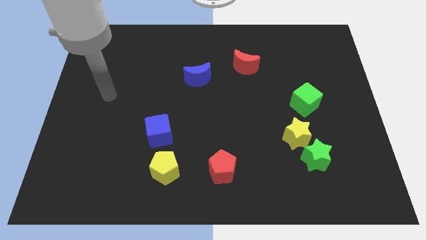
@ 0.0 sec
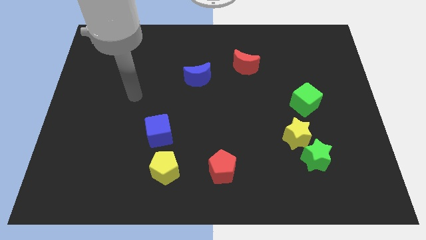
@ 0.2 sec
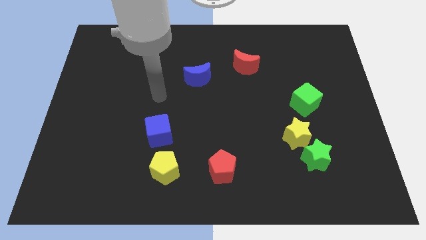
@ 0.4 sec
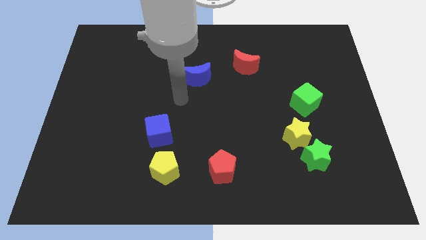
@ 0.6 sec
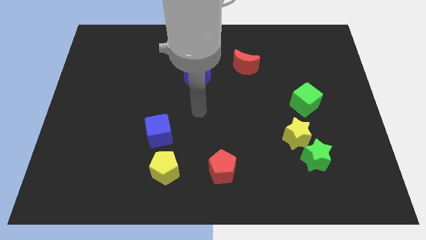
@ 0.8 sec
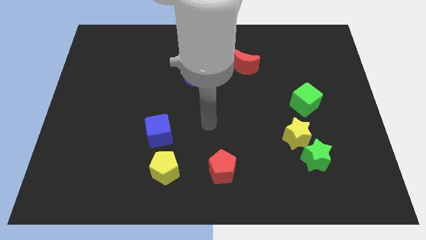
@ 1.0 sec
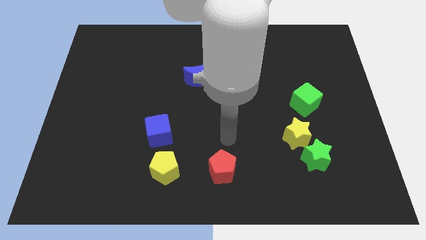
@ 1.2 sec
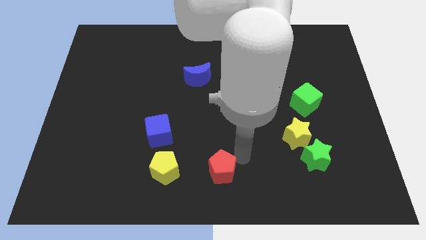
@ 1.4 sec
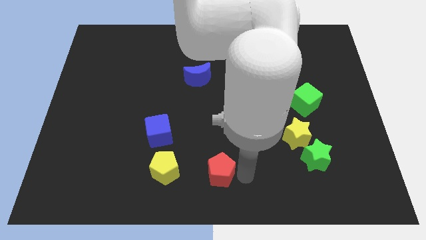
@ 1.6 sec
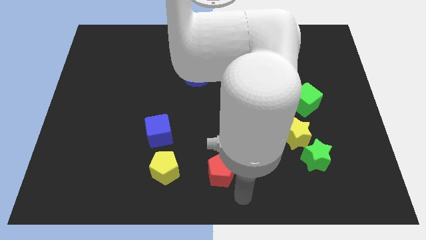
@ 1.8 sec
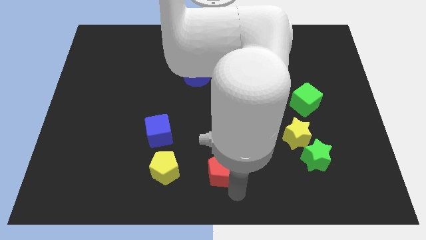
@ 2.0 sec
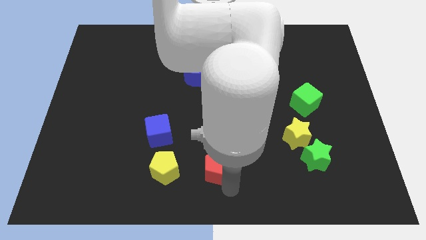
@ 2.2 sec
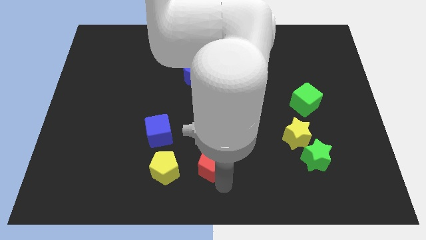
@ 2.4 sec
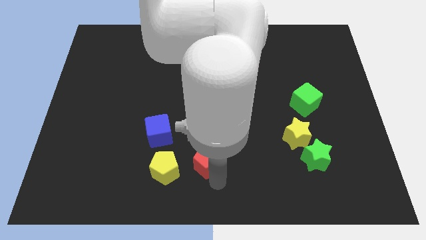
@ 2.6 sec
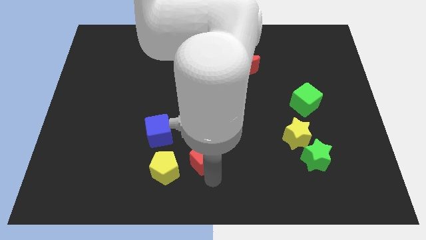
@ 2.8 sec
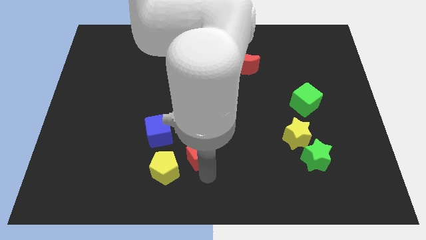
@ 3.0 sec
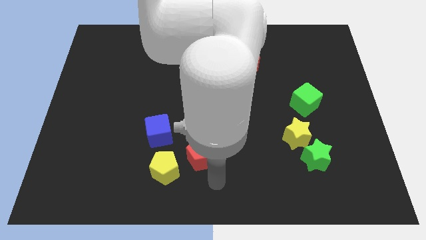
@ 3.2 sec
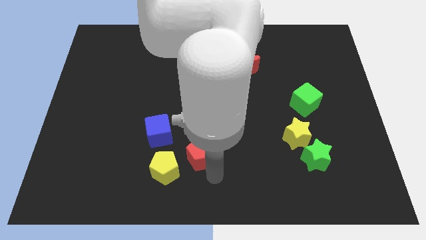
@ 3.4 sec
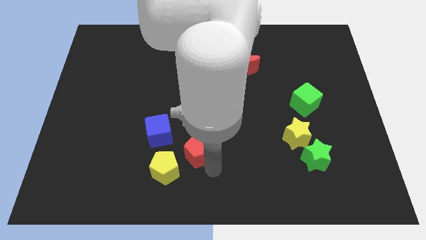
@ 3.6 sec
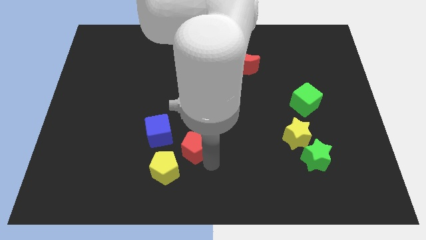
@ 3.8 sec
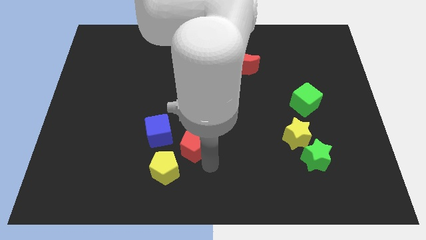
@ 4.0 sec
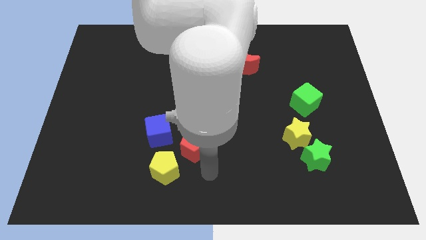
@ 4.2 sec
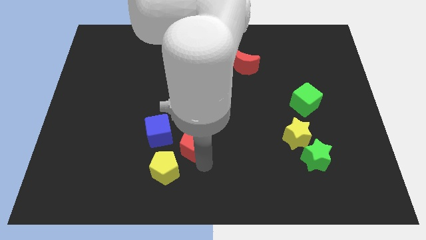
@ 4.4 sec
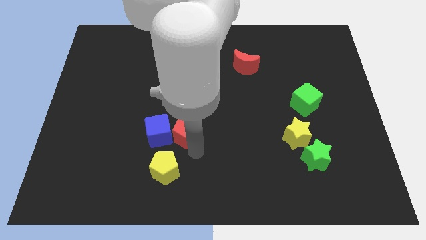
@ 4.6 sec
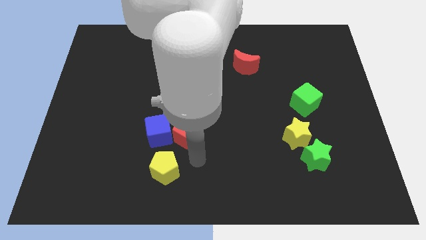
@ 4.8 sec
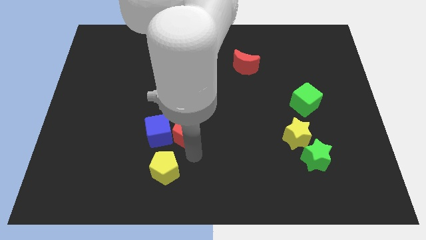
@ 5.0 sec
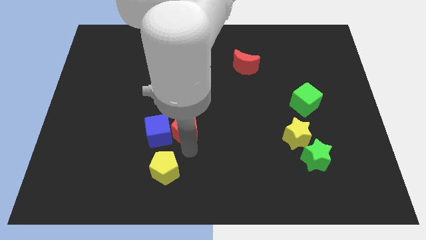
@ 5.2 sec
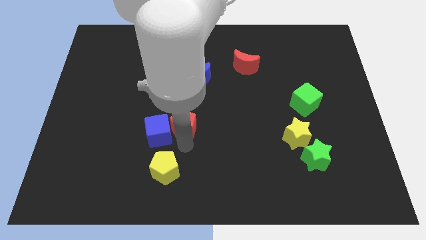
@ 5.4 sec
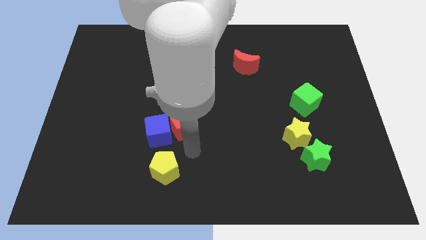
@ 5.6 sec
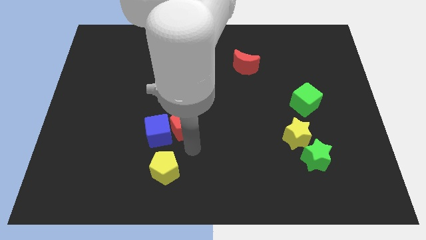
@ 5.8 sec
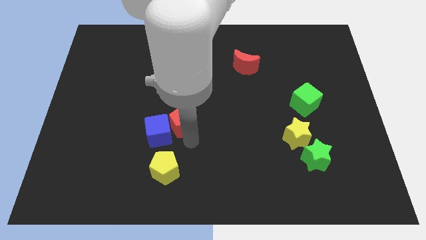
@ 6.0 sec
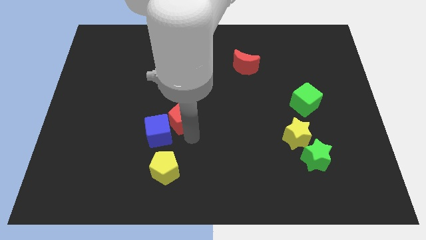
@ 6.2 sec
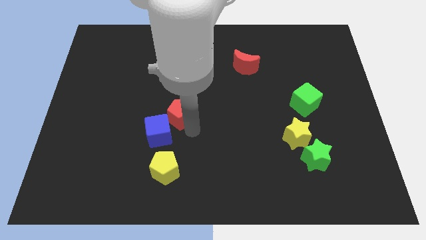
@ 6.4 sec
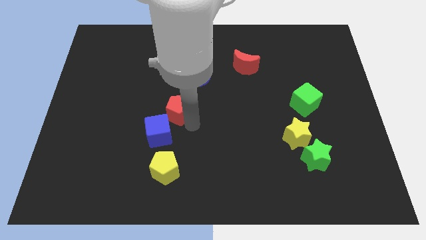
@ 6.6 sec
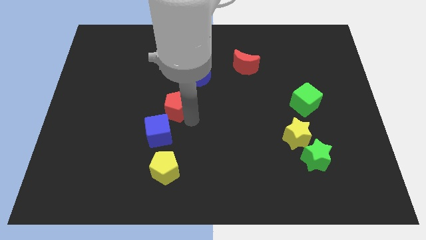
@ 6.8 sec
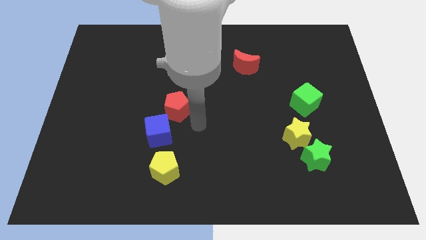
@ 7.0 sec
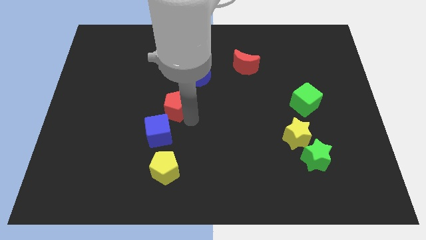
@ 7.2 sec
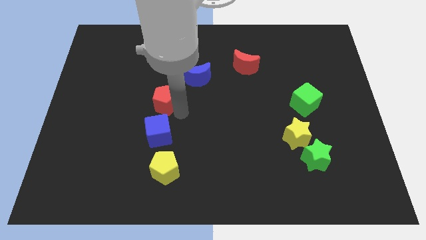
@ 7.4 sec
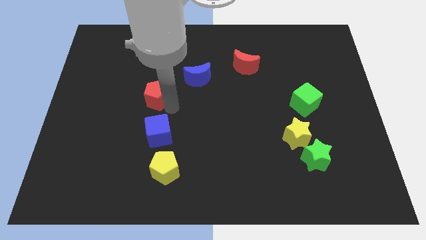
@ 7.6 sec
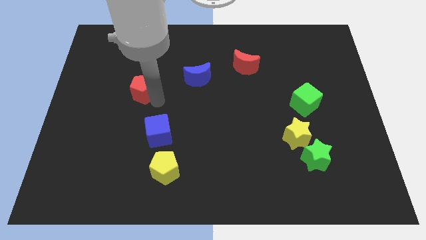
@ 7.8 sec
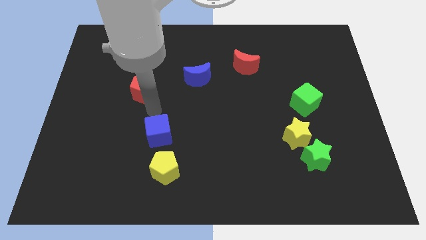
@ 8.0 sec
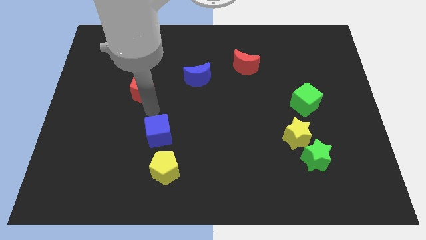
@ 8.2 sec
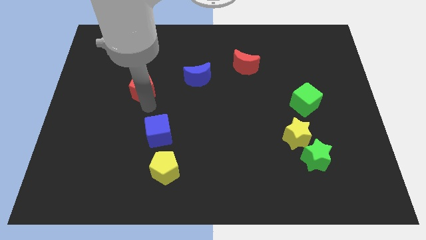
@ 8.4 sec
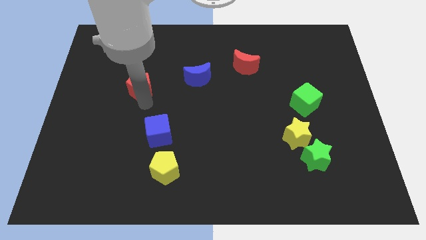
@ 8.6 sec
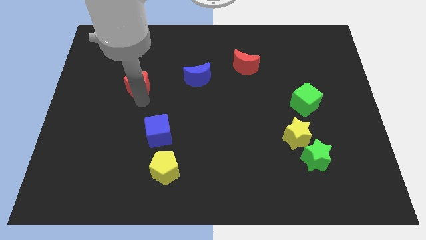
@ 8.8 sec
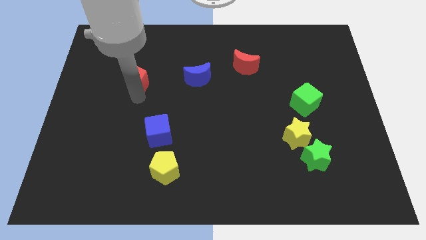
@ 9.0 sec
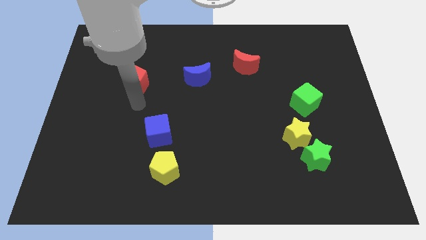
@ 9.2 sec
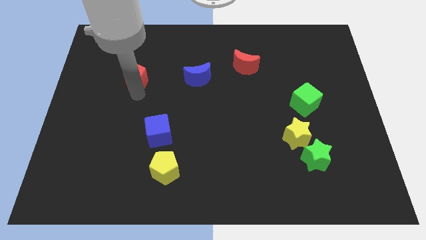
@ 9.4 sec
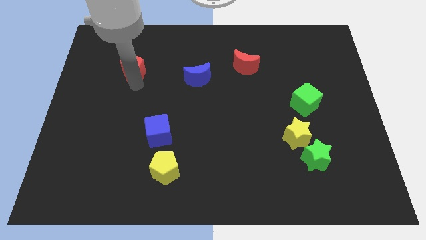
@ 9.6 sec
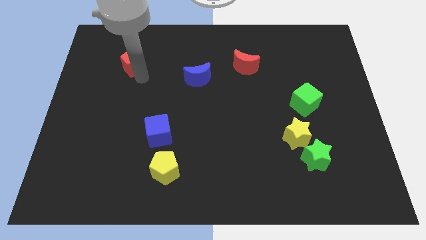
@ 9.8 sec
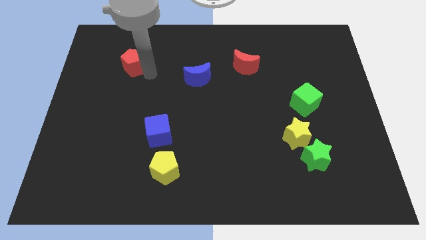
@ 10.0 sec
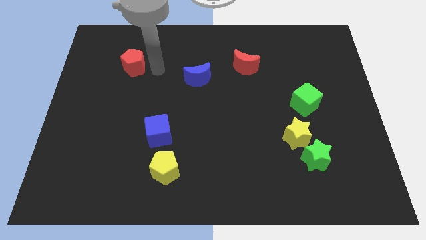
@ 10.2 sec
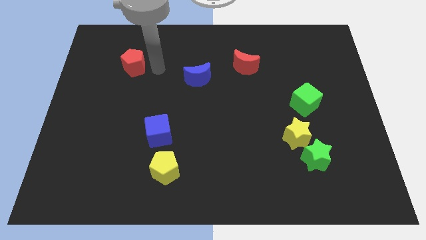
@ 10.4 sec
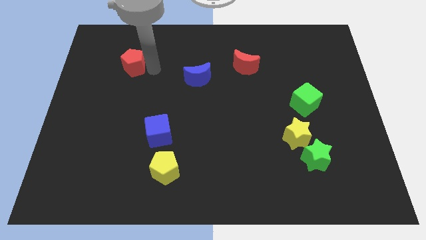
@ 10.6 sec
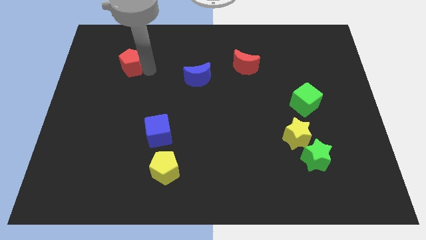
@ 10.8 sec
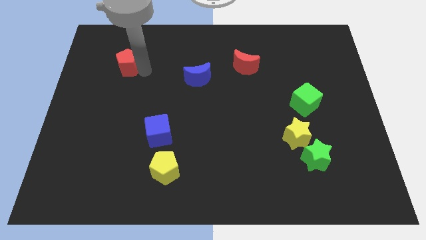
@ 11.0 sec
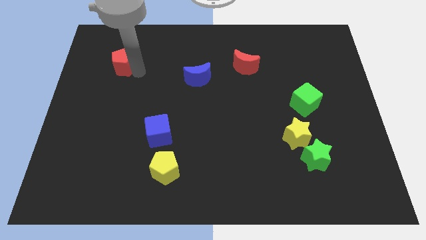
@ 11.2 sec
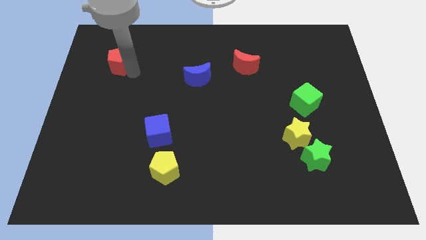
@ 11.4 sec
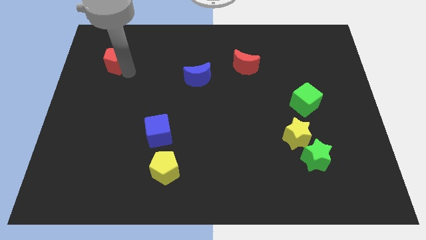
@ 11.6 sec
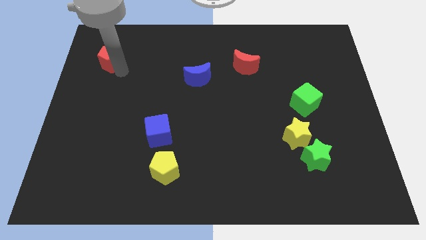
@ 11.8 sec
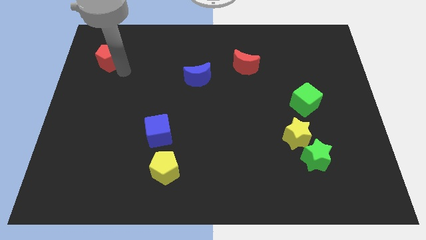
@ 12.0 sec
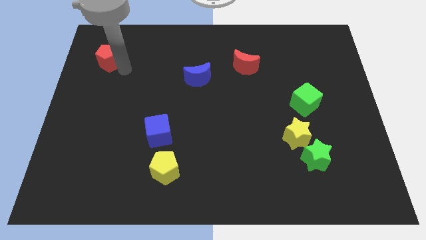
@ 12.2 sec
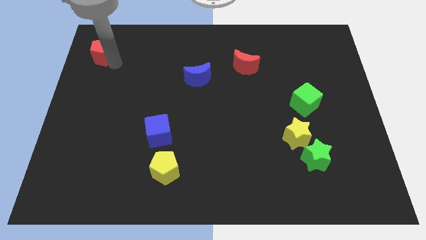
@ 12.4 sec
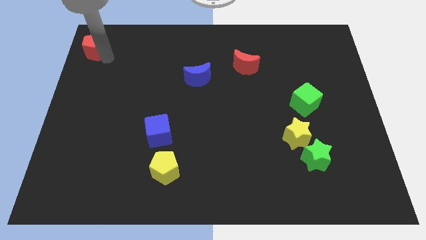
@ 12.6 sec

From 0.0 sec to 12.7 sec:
move the red pentagon to the upper left corner
